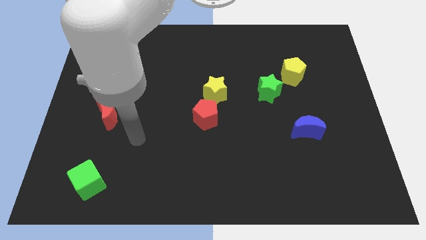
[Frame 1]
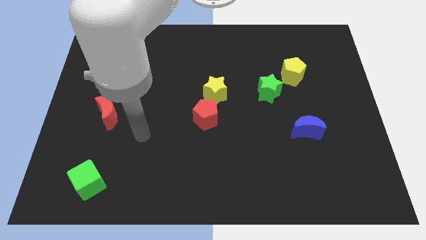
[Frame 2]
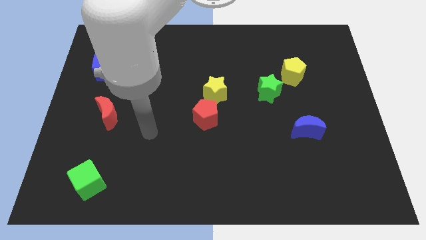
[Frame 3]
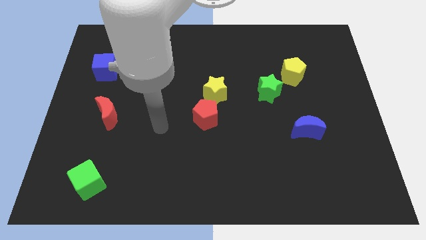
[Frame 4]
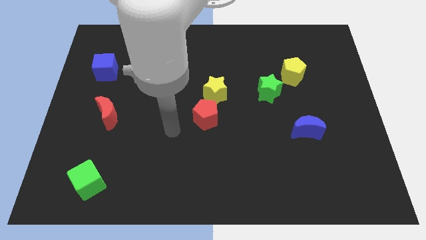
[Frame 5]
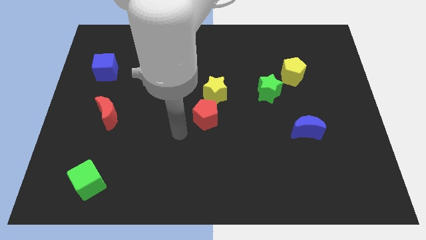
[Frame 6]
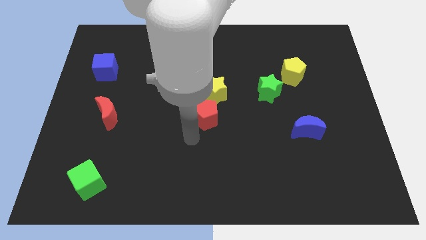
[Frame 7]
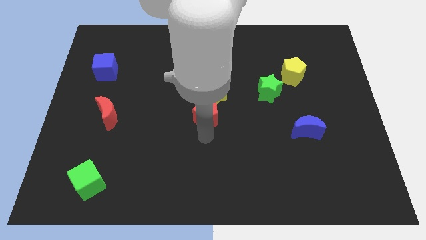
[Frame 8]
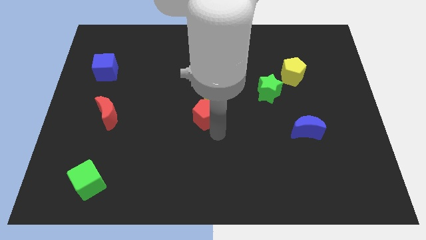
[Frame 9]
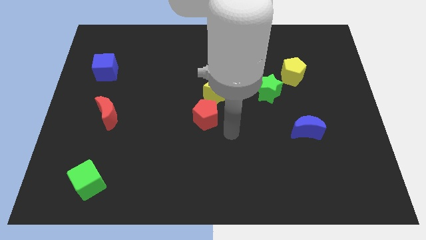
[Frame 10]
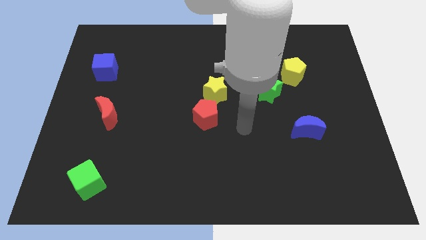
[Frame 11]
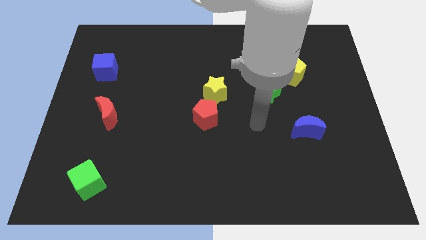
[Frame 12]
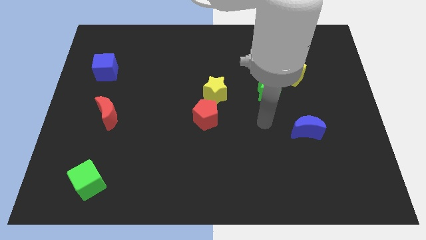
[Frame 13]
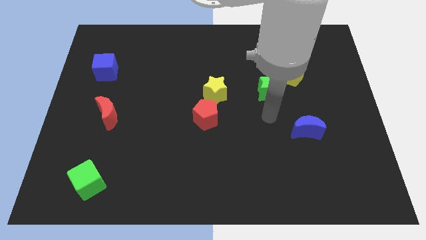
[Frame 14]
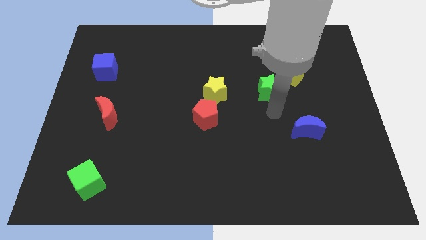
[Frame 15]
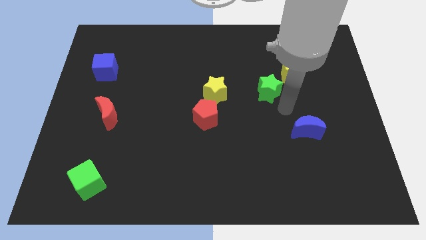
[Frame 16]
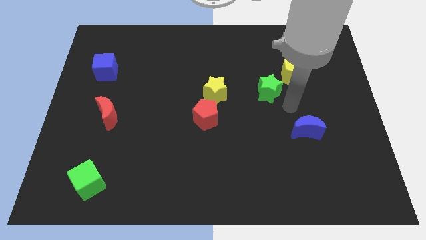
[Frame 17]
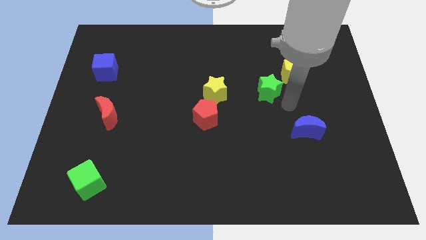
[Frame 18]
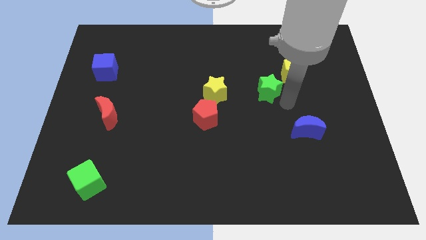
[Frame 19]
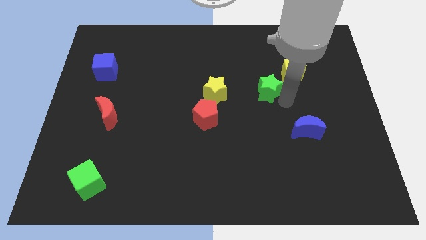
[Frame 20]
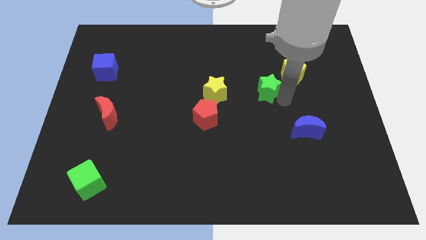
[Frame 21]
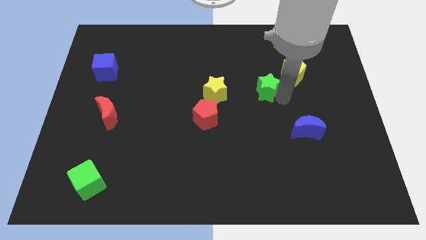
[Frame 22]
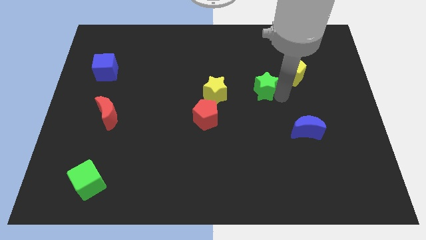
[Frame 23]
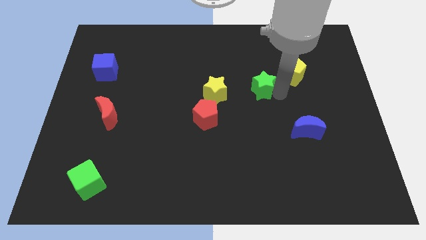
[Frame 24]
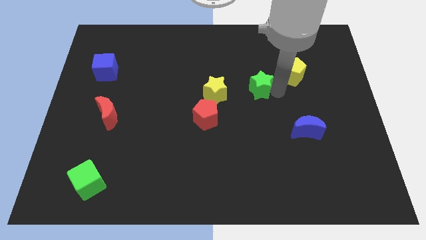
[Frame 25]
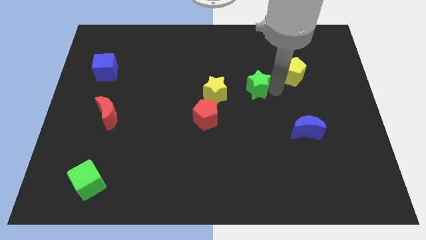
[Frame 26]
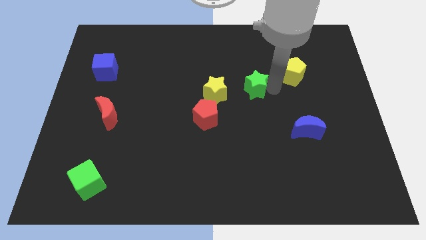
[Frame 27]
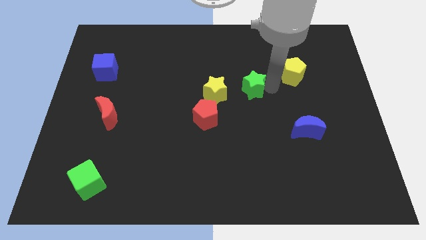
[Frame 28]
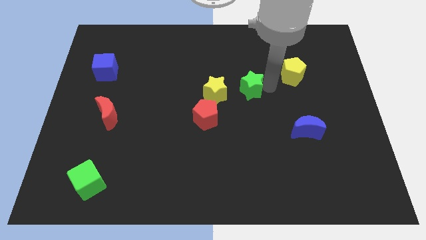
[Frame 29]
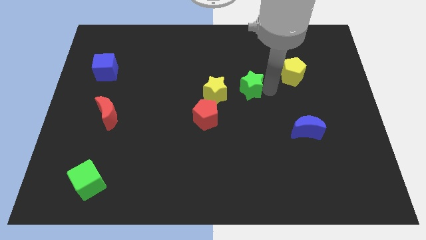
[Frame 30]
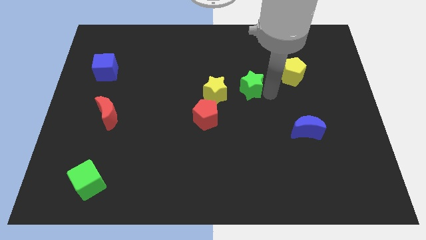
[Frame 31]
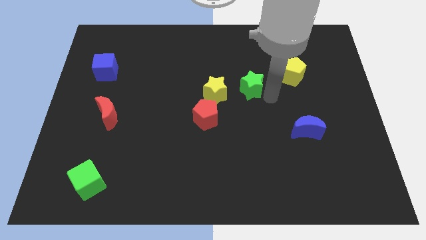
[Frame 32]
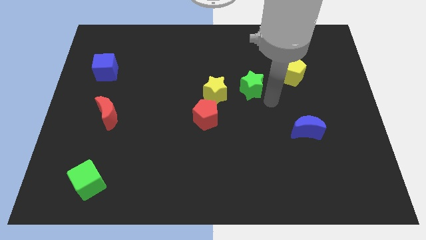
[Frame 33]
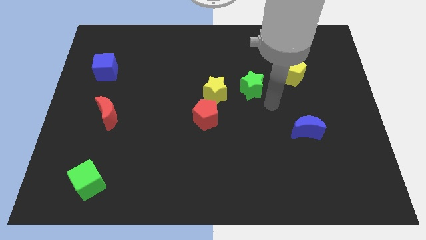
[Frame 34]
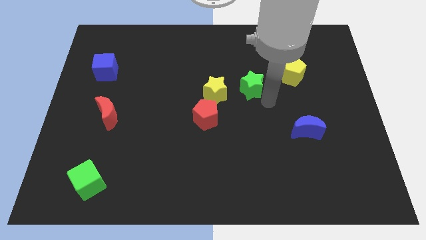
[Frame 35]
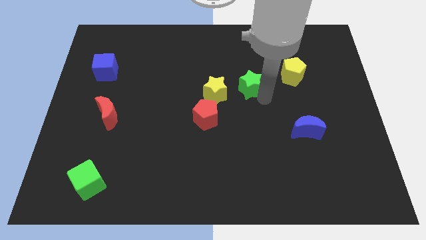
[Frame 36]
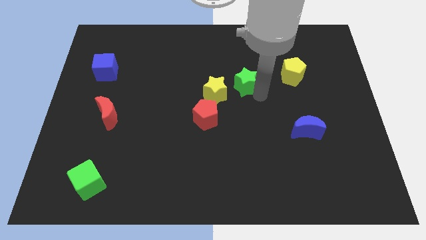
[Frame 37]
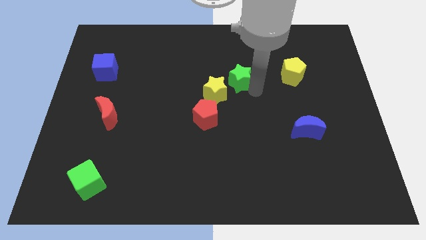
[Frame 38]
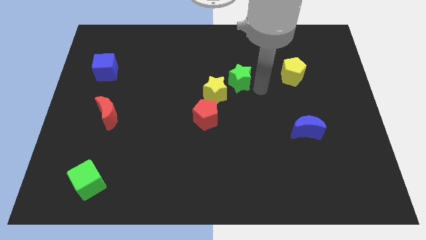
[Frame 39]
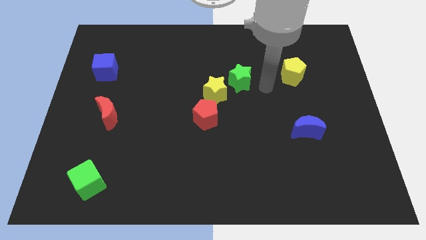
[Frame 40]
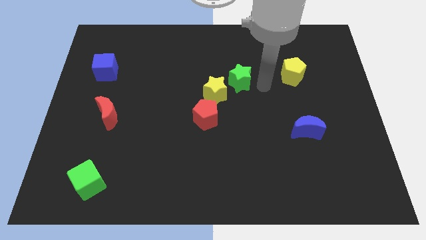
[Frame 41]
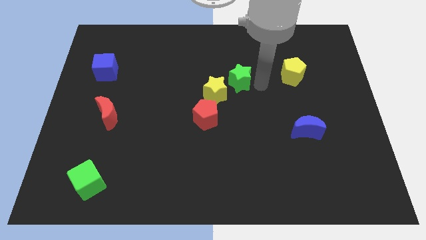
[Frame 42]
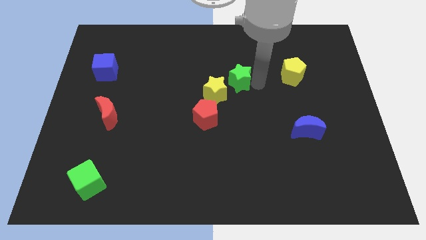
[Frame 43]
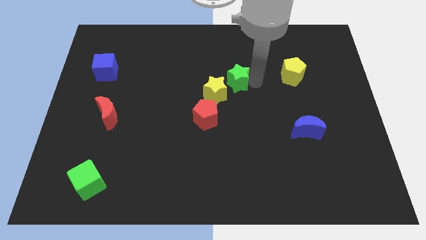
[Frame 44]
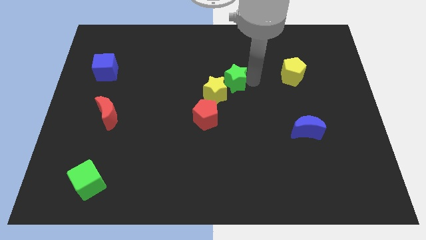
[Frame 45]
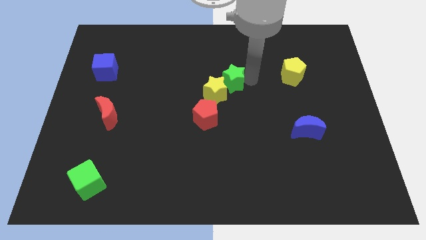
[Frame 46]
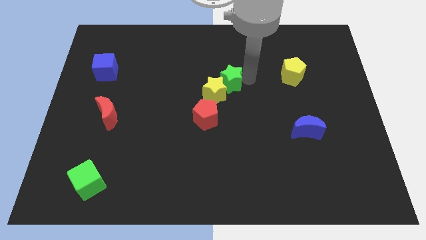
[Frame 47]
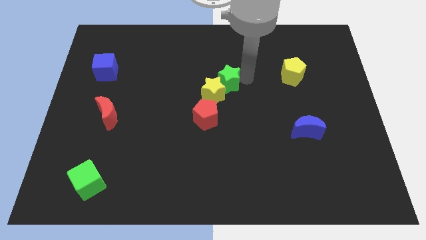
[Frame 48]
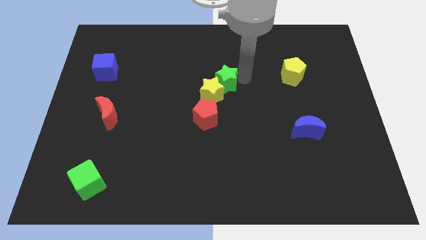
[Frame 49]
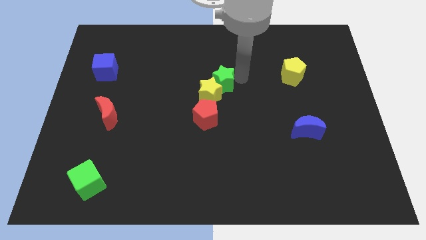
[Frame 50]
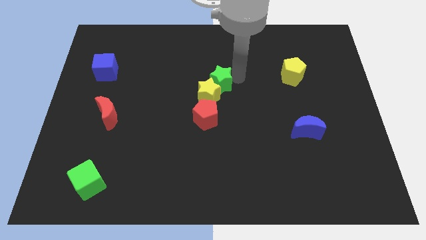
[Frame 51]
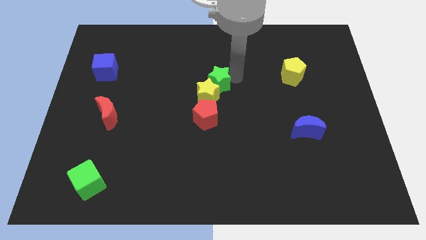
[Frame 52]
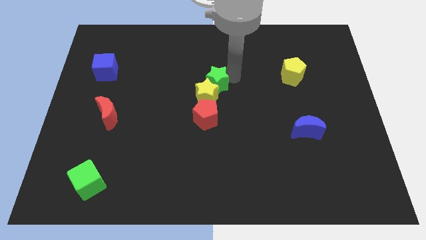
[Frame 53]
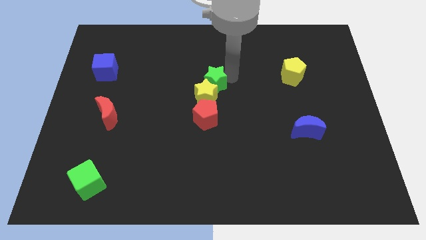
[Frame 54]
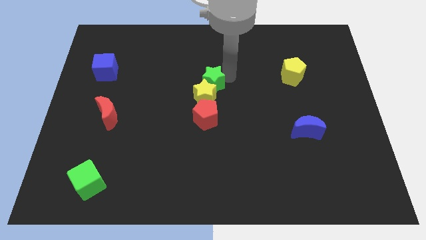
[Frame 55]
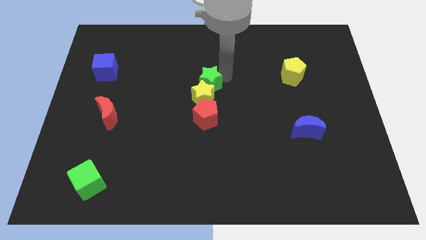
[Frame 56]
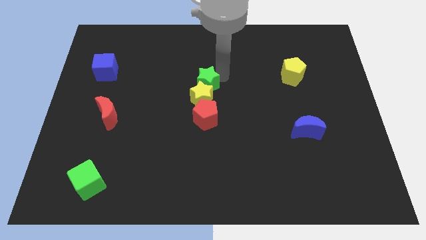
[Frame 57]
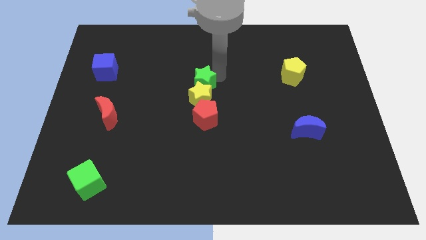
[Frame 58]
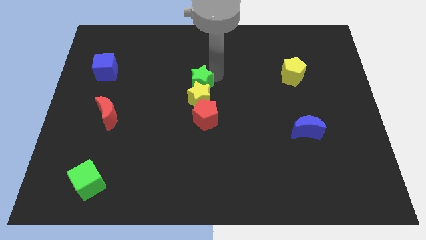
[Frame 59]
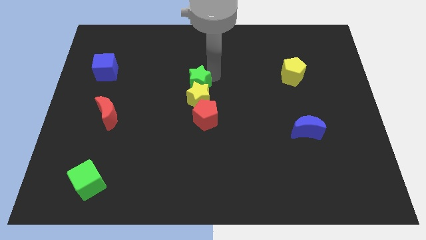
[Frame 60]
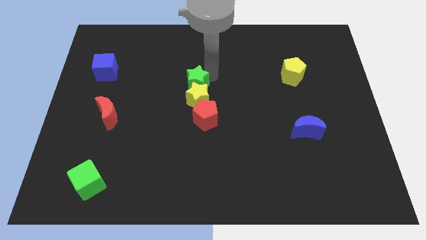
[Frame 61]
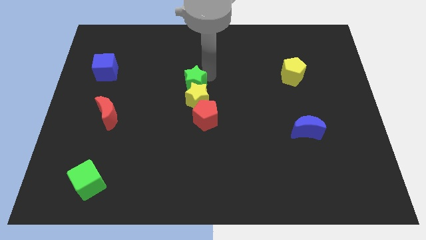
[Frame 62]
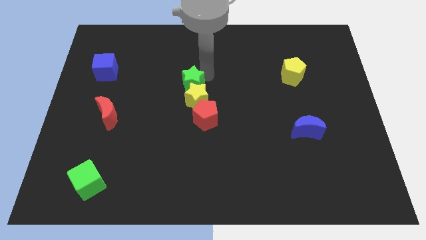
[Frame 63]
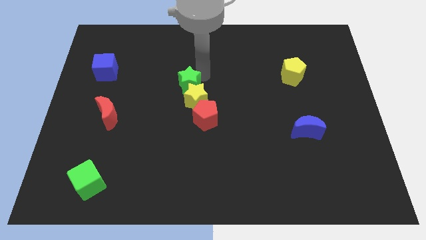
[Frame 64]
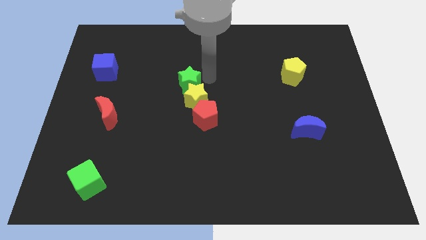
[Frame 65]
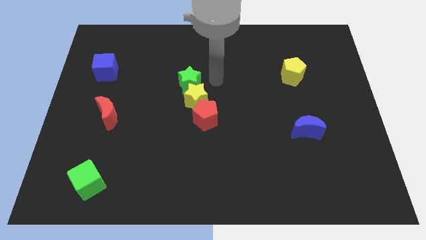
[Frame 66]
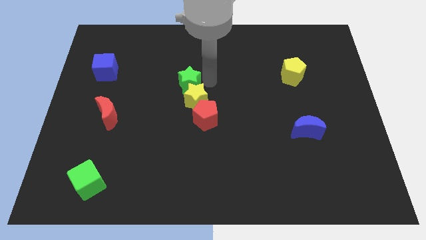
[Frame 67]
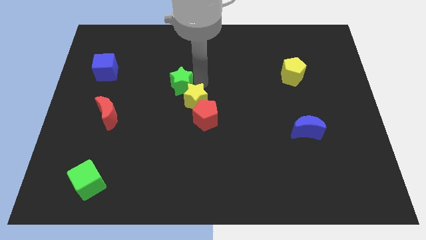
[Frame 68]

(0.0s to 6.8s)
slide the green star left

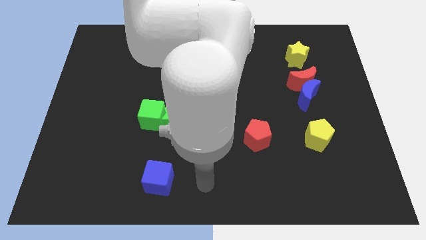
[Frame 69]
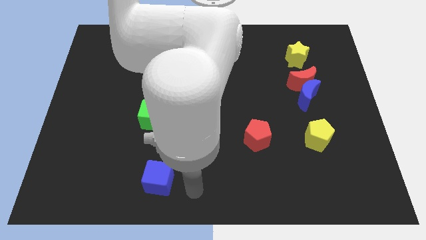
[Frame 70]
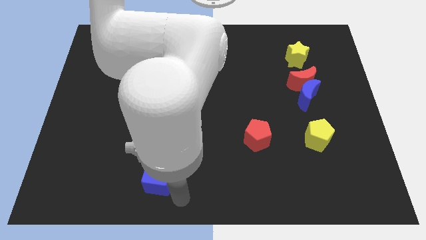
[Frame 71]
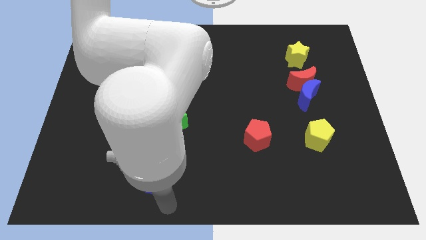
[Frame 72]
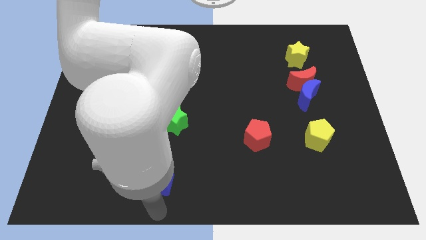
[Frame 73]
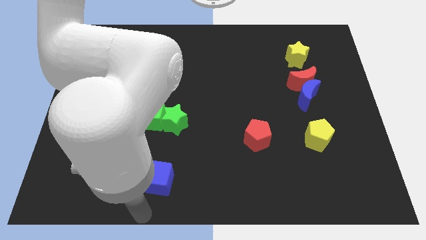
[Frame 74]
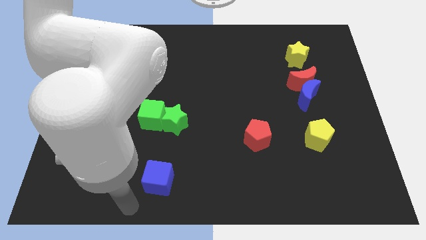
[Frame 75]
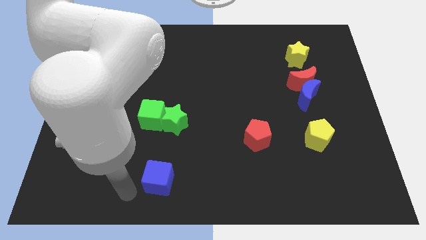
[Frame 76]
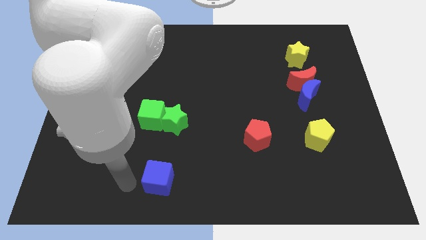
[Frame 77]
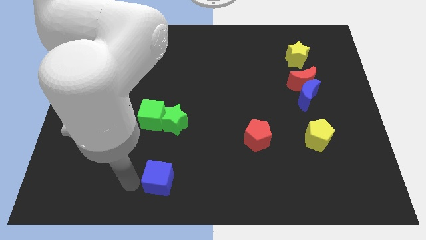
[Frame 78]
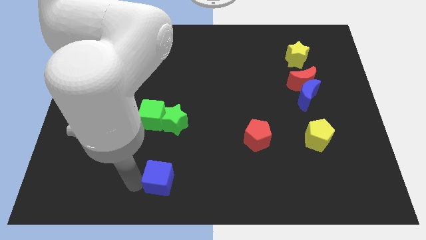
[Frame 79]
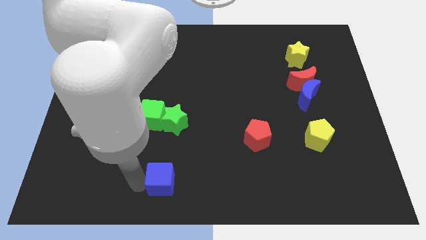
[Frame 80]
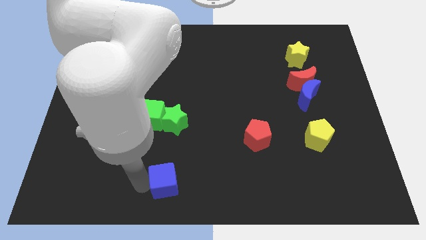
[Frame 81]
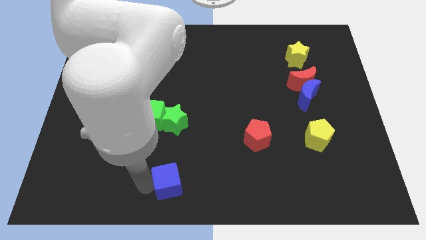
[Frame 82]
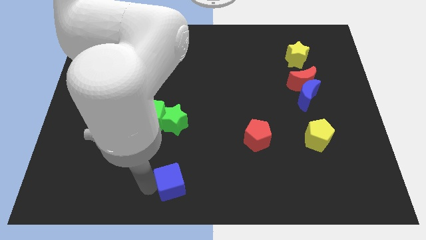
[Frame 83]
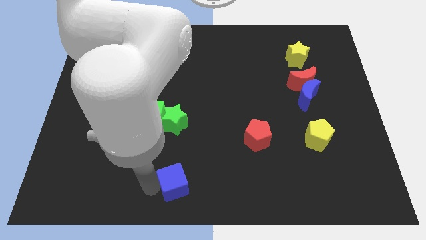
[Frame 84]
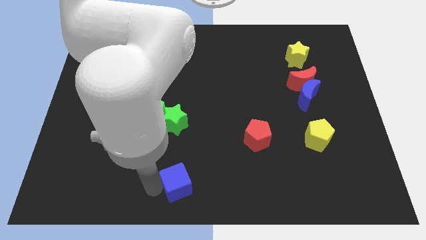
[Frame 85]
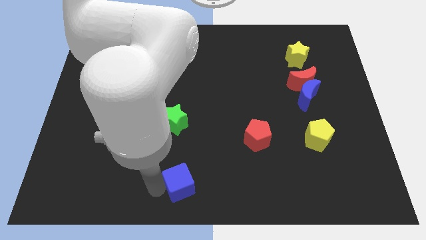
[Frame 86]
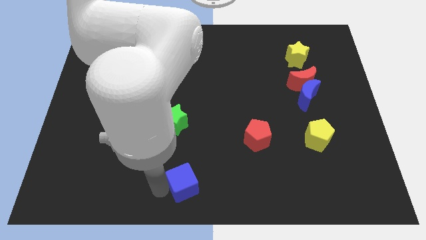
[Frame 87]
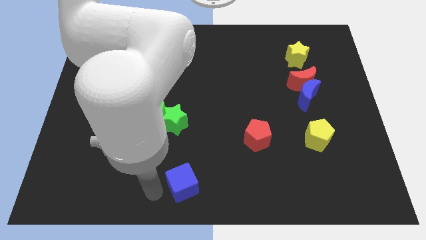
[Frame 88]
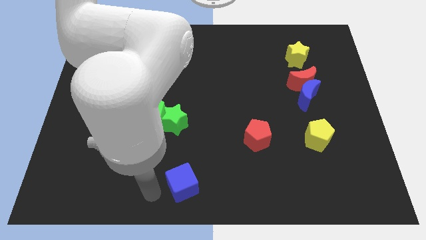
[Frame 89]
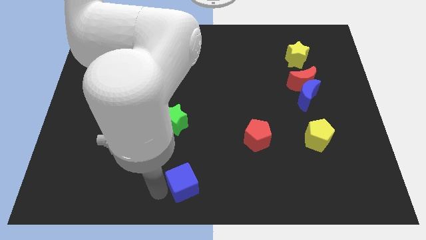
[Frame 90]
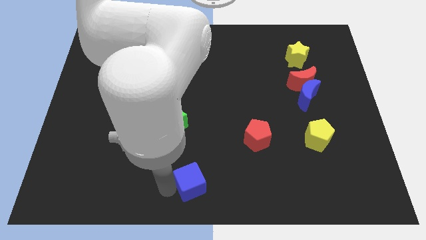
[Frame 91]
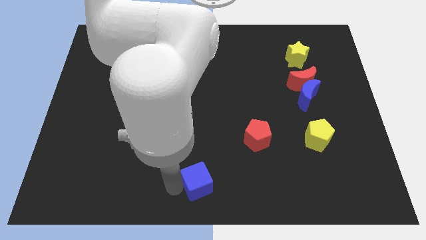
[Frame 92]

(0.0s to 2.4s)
slightly move the blue cube right
